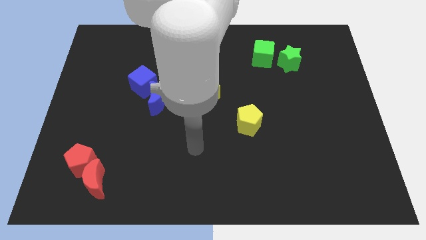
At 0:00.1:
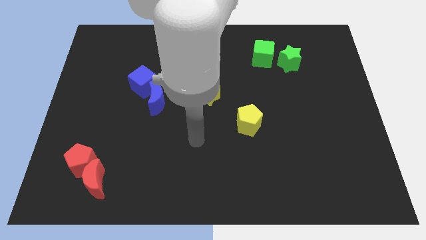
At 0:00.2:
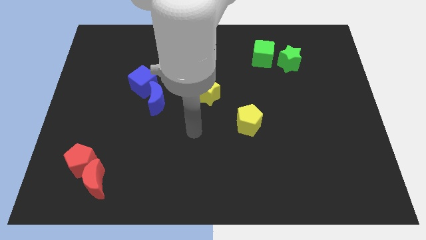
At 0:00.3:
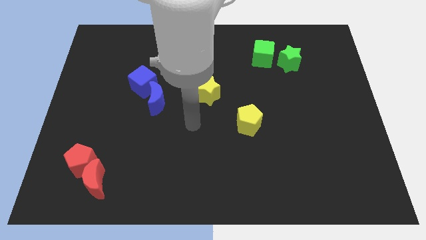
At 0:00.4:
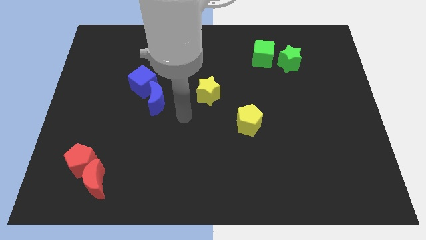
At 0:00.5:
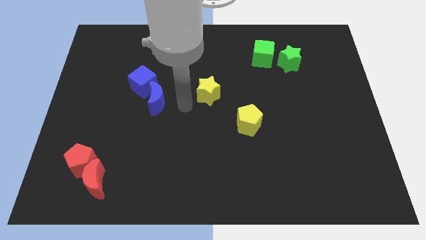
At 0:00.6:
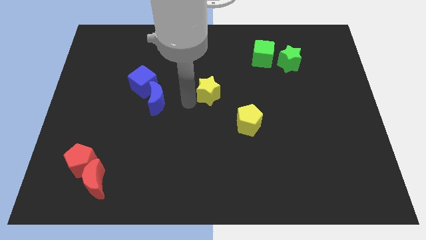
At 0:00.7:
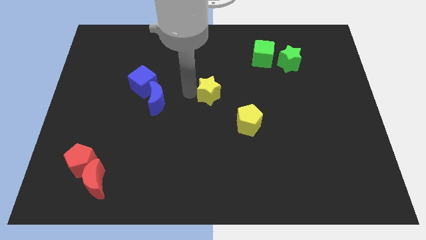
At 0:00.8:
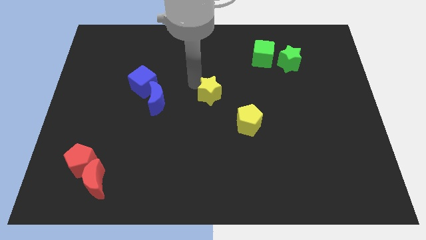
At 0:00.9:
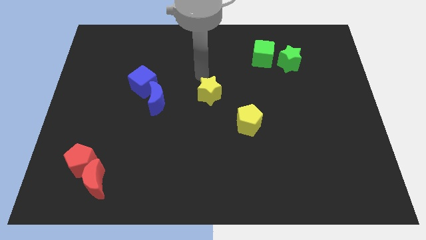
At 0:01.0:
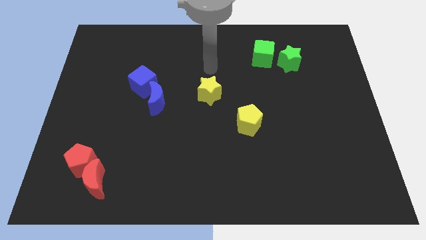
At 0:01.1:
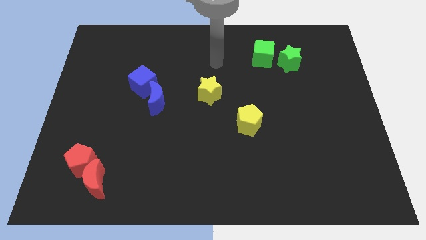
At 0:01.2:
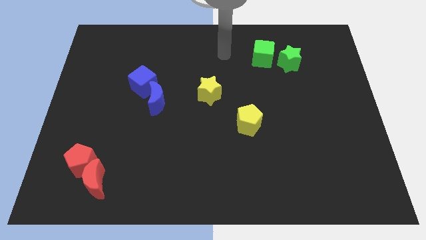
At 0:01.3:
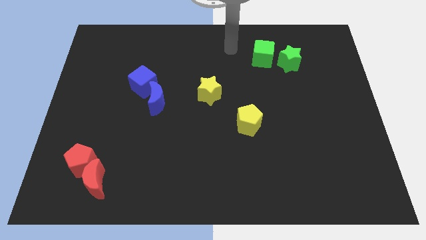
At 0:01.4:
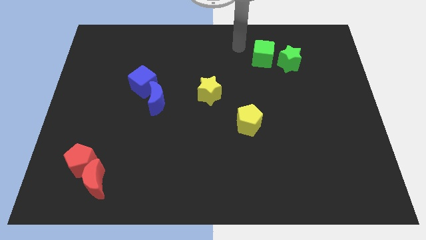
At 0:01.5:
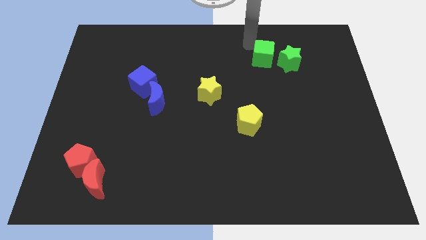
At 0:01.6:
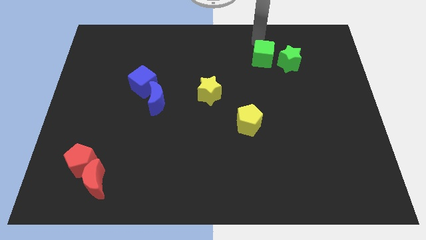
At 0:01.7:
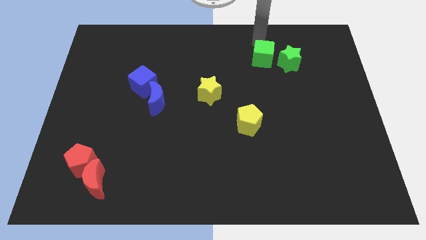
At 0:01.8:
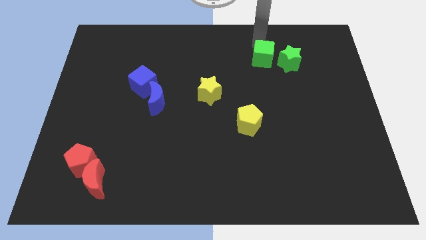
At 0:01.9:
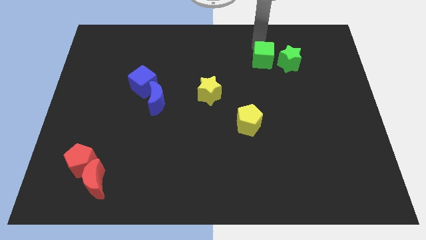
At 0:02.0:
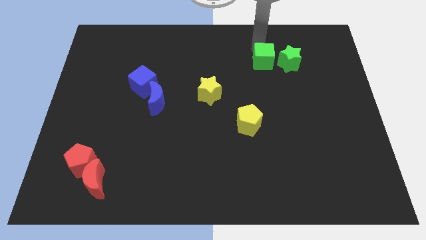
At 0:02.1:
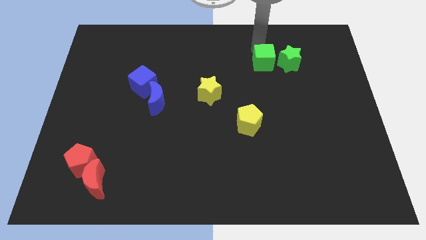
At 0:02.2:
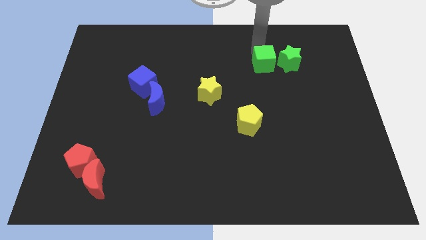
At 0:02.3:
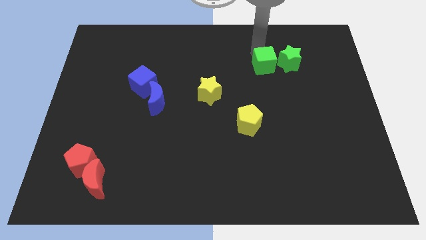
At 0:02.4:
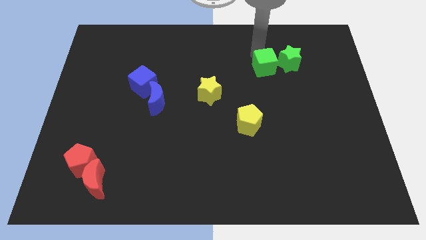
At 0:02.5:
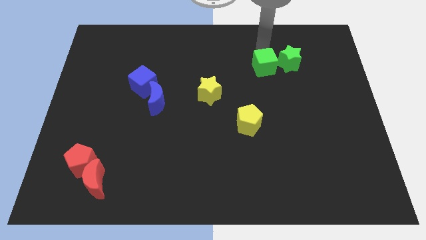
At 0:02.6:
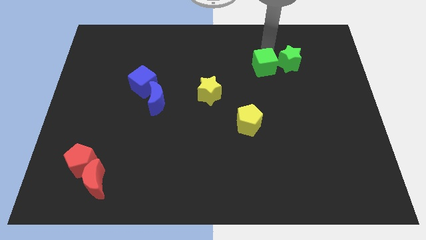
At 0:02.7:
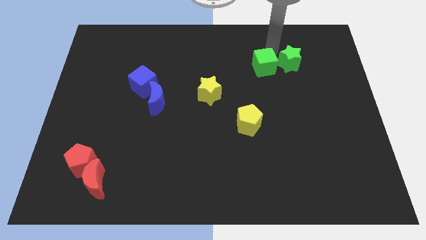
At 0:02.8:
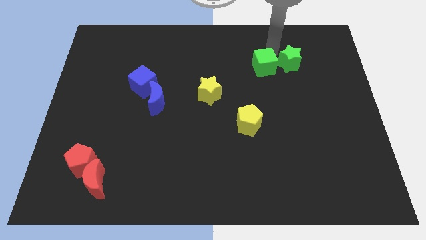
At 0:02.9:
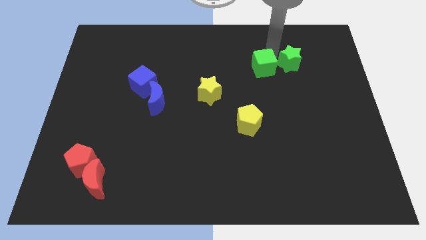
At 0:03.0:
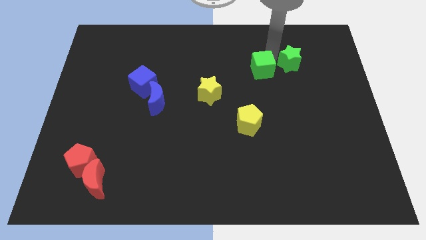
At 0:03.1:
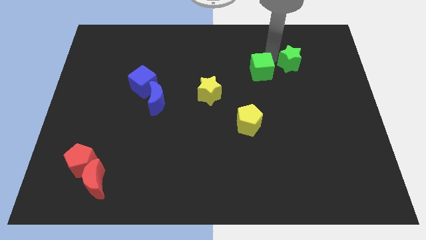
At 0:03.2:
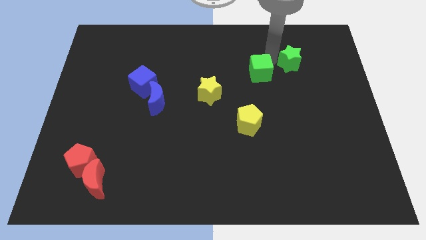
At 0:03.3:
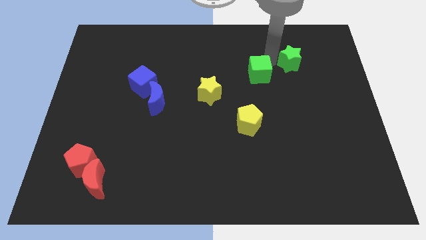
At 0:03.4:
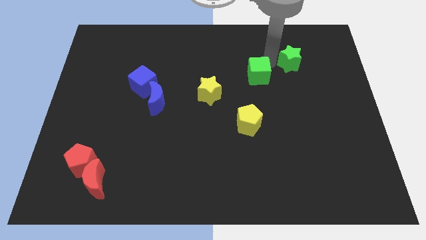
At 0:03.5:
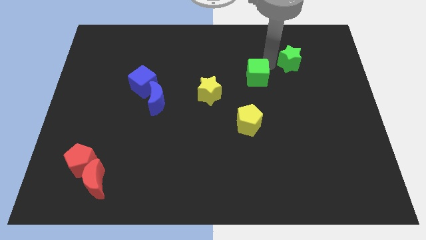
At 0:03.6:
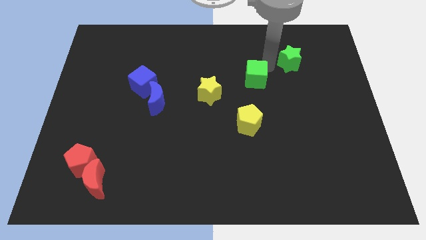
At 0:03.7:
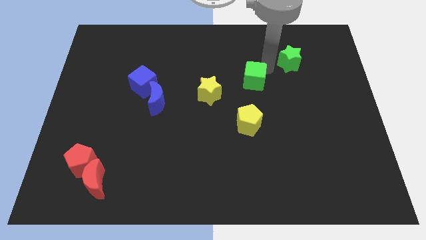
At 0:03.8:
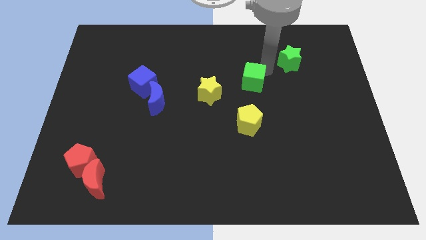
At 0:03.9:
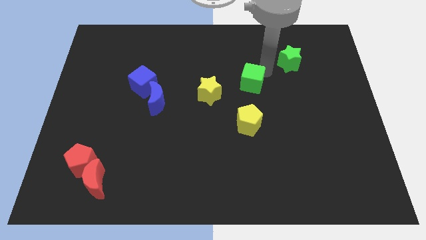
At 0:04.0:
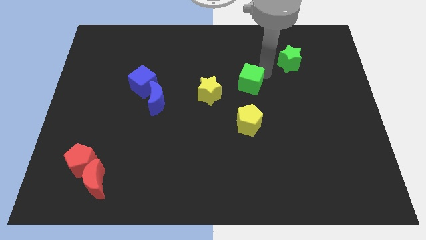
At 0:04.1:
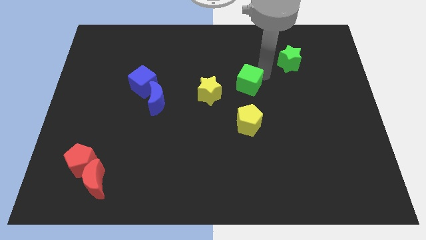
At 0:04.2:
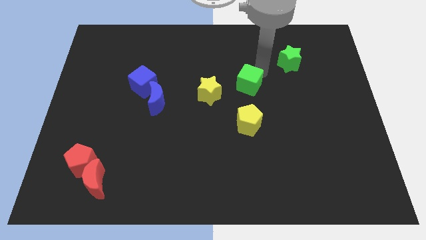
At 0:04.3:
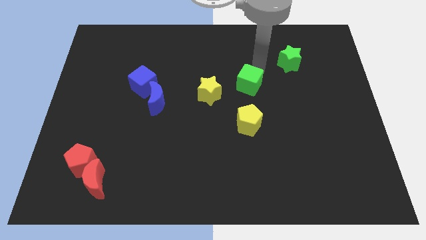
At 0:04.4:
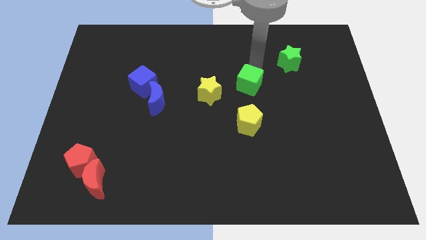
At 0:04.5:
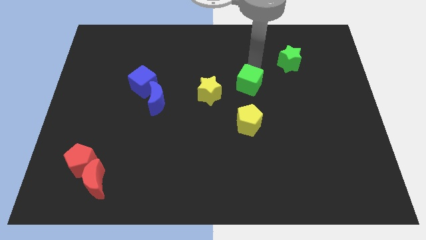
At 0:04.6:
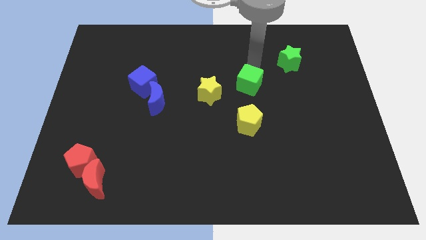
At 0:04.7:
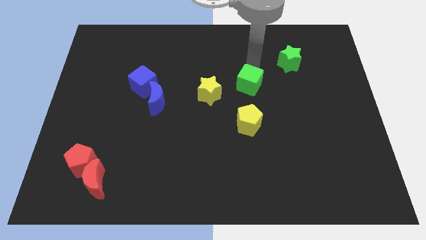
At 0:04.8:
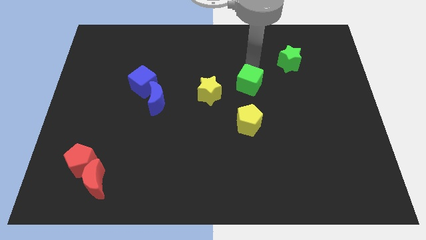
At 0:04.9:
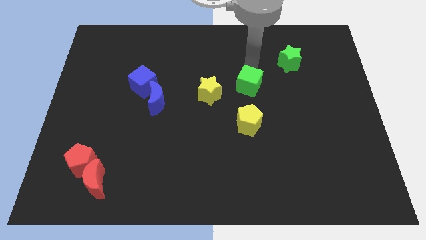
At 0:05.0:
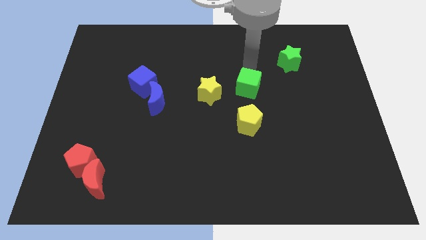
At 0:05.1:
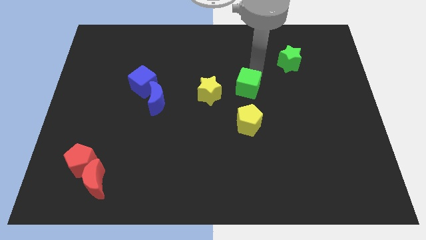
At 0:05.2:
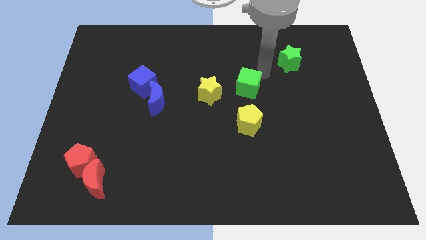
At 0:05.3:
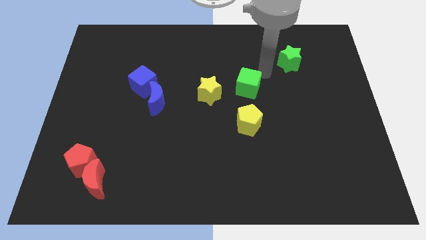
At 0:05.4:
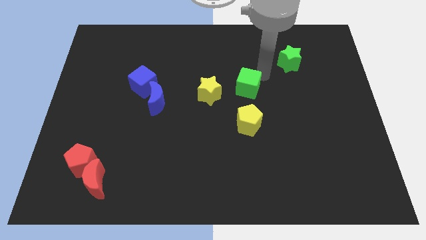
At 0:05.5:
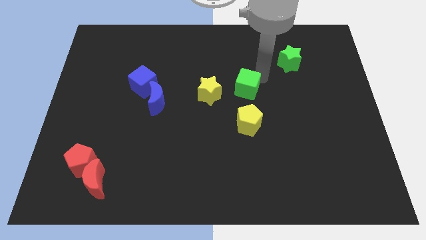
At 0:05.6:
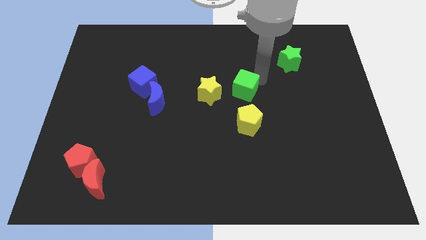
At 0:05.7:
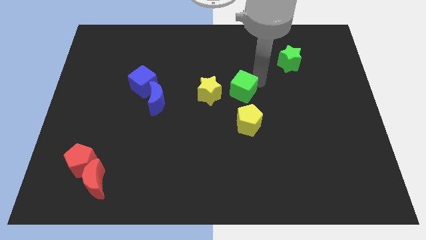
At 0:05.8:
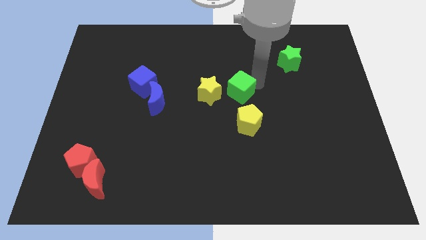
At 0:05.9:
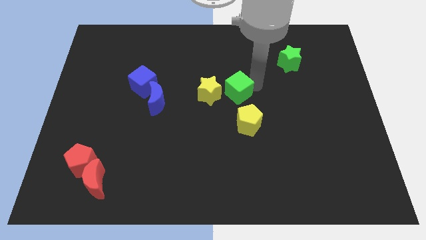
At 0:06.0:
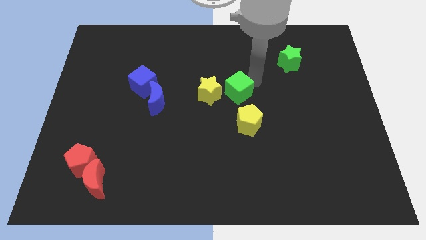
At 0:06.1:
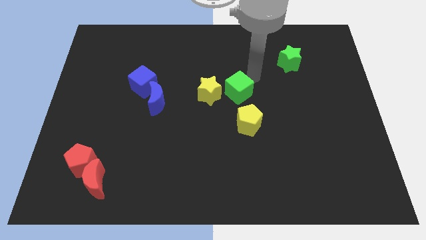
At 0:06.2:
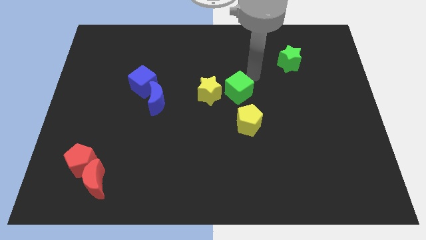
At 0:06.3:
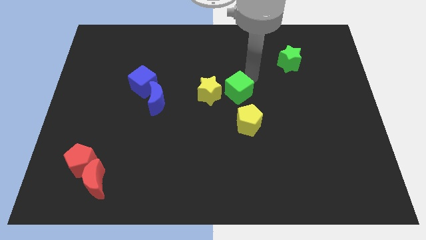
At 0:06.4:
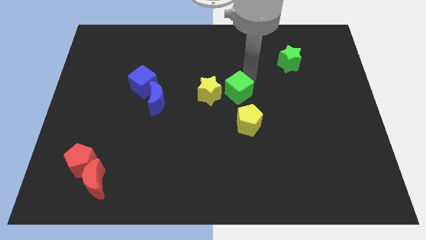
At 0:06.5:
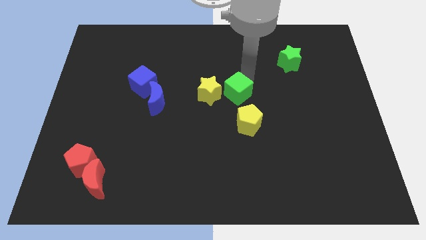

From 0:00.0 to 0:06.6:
slide the green cube diagonally up and to the left of the yellow pentagon

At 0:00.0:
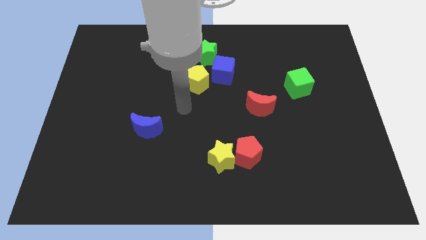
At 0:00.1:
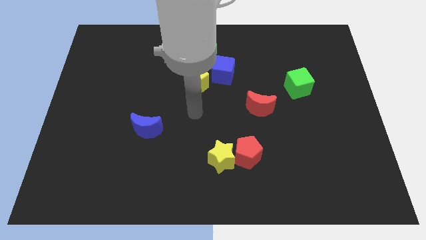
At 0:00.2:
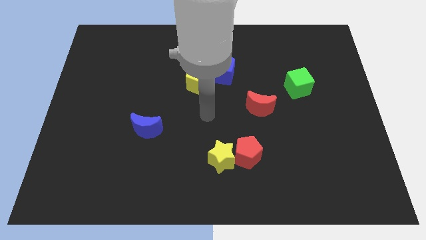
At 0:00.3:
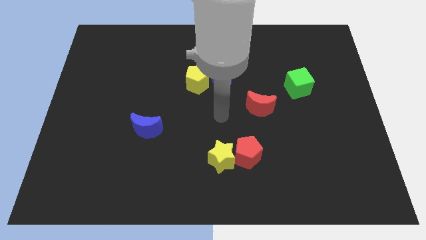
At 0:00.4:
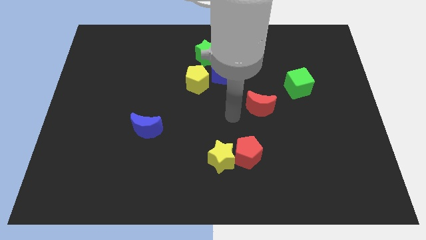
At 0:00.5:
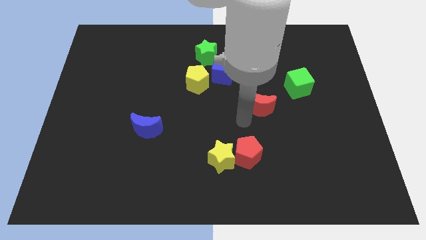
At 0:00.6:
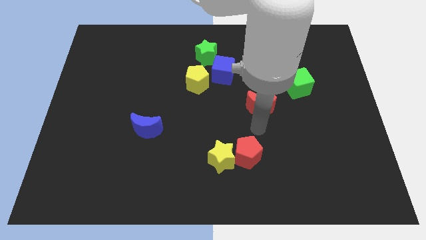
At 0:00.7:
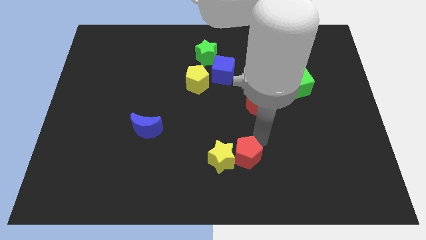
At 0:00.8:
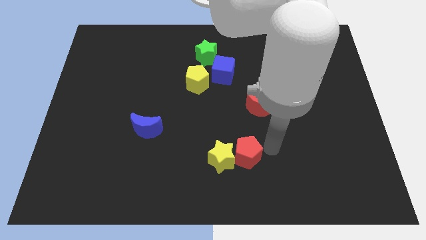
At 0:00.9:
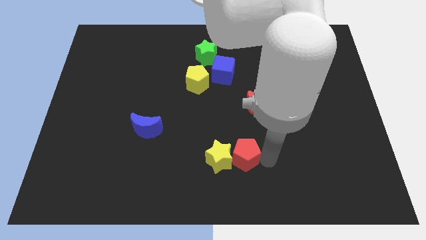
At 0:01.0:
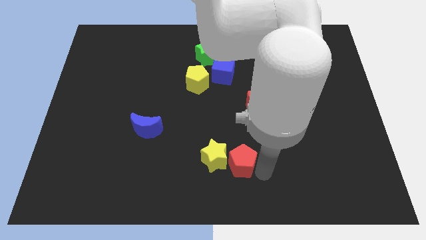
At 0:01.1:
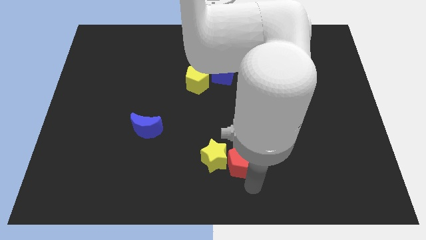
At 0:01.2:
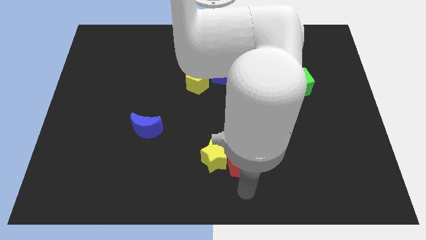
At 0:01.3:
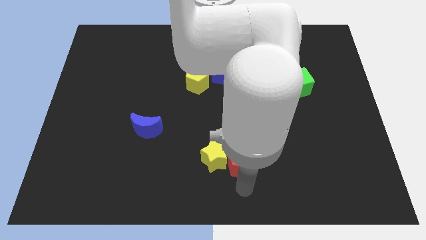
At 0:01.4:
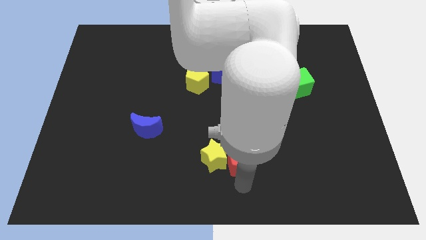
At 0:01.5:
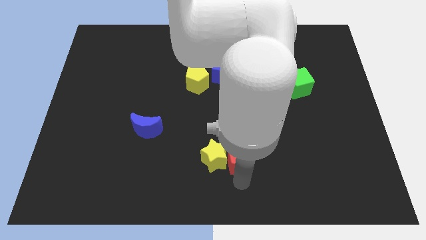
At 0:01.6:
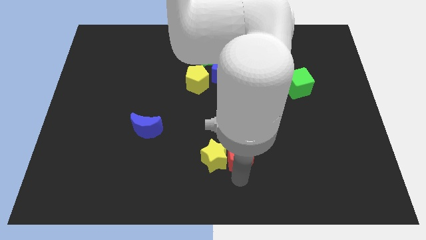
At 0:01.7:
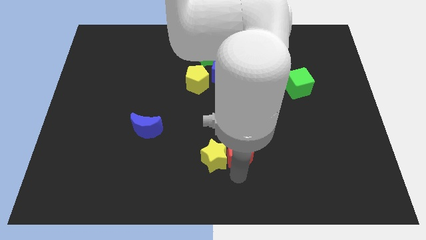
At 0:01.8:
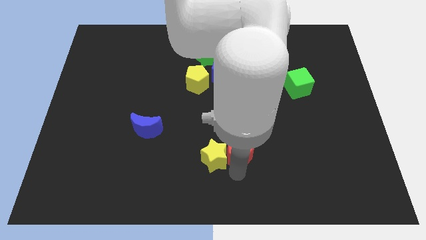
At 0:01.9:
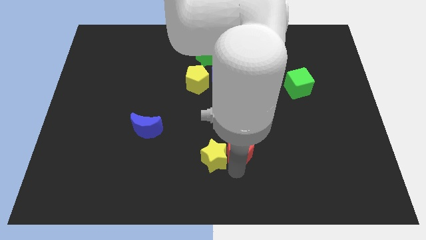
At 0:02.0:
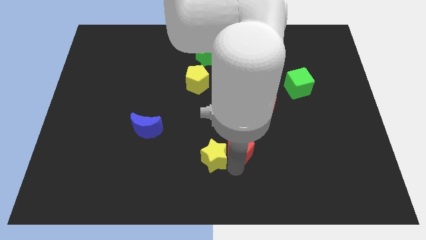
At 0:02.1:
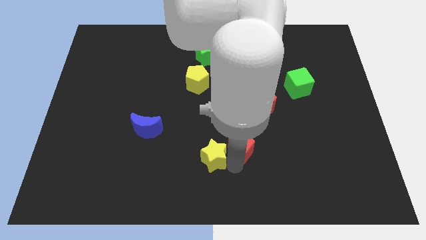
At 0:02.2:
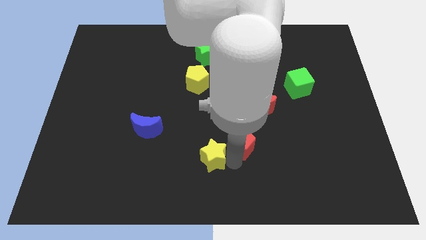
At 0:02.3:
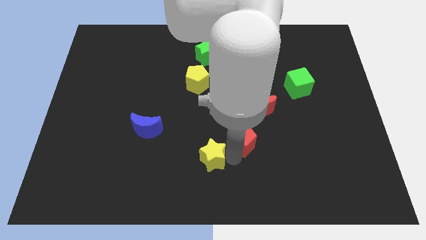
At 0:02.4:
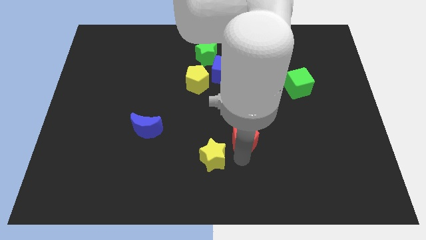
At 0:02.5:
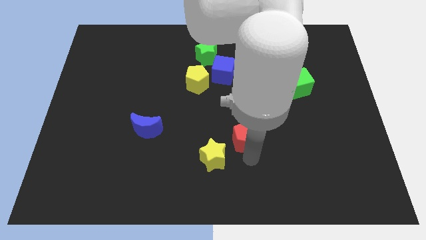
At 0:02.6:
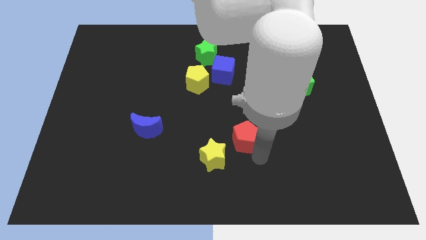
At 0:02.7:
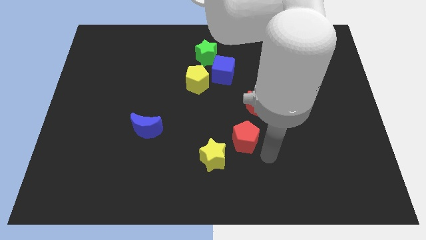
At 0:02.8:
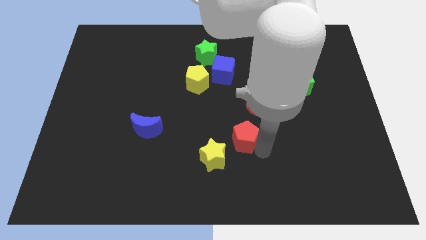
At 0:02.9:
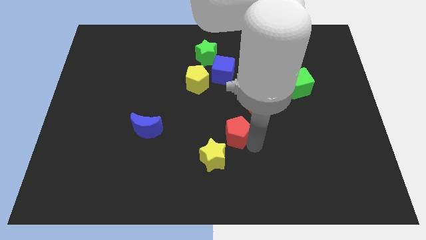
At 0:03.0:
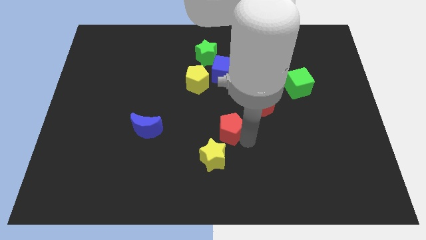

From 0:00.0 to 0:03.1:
push the red pentagon to the top side of the yellow star
